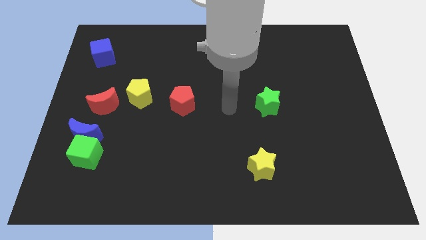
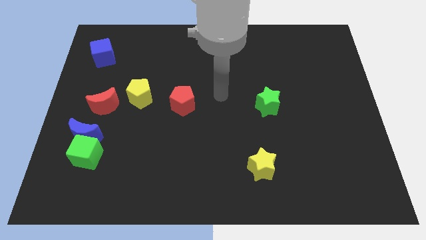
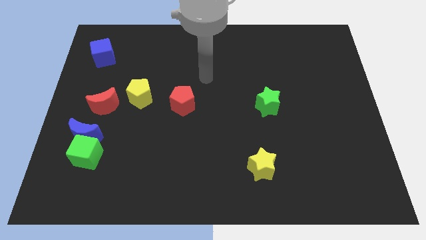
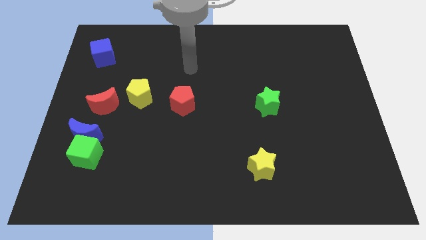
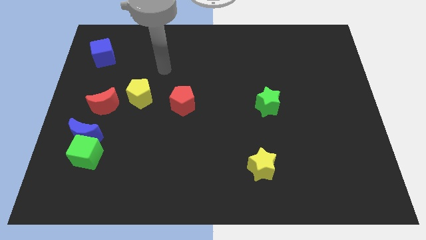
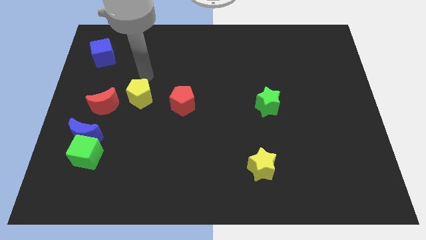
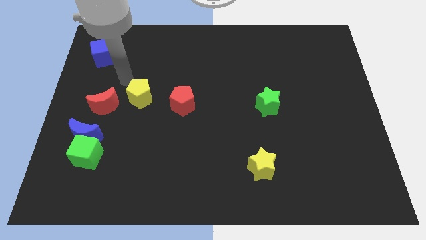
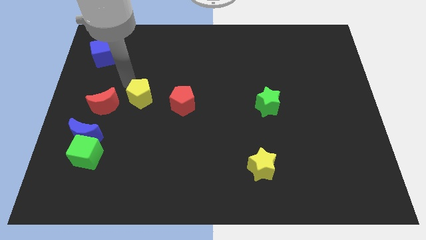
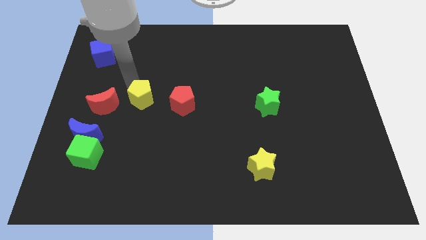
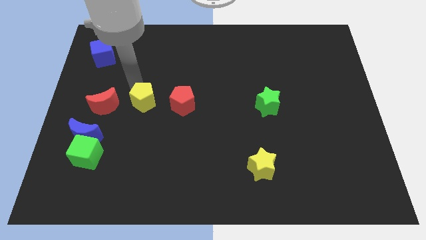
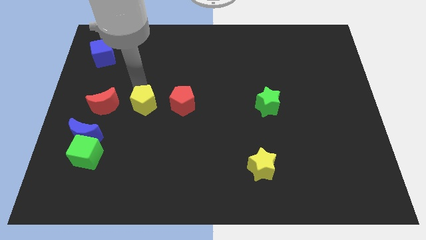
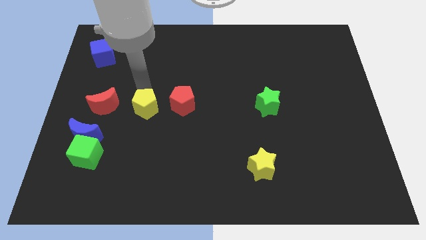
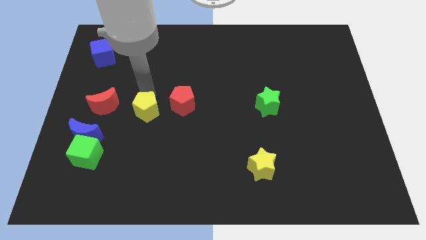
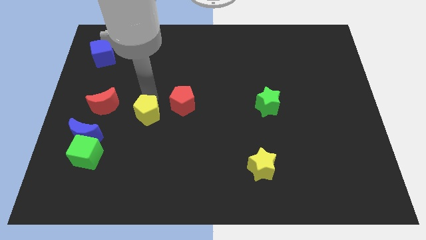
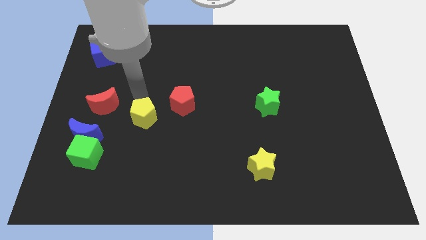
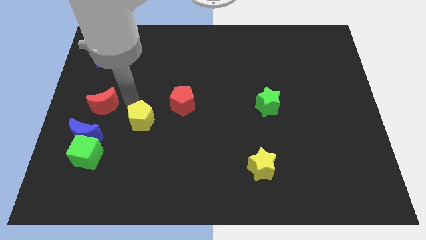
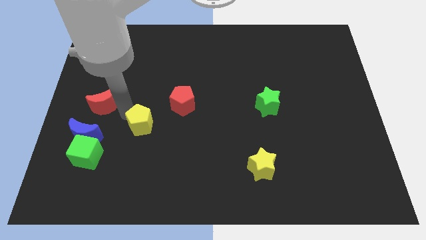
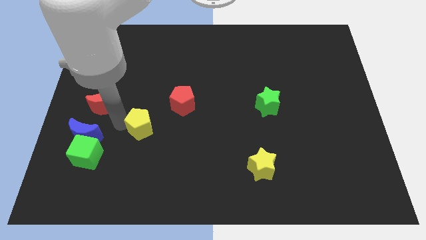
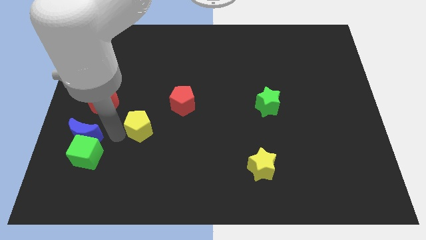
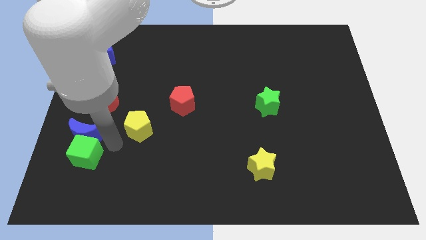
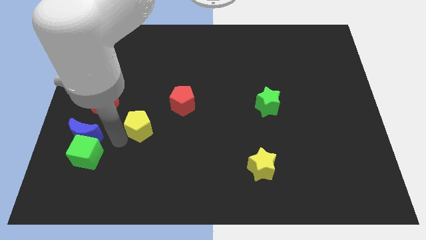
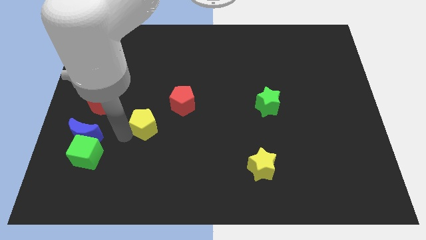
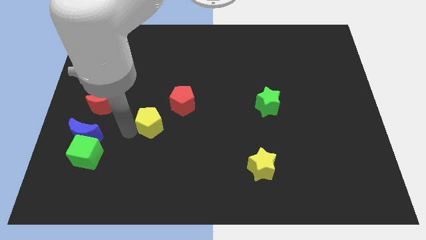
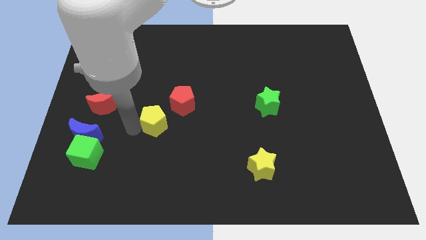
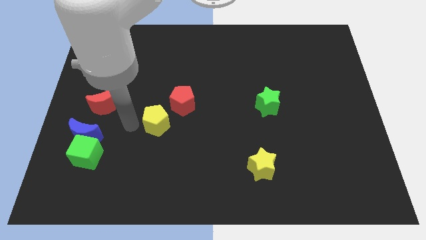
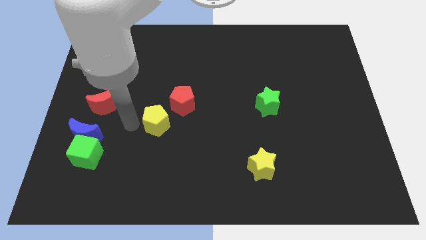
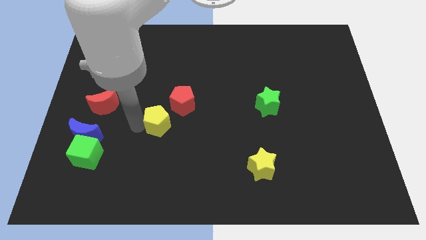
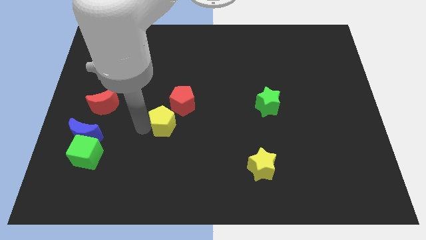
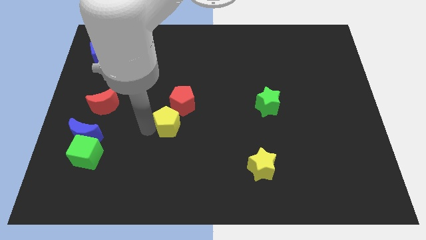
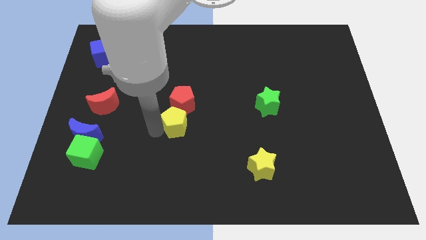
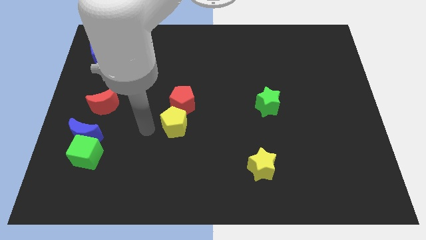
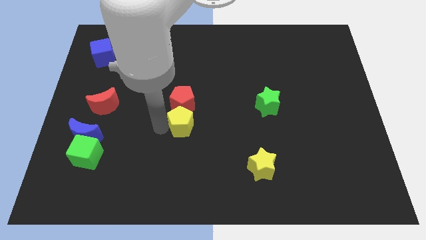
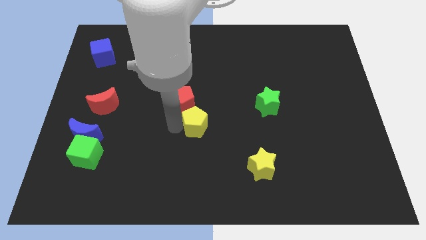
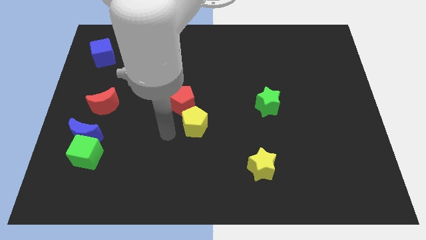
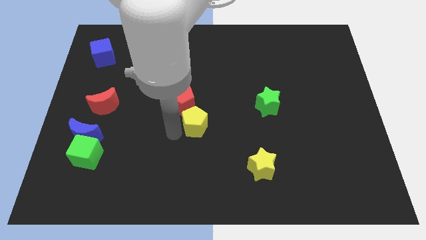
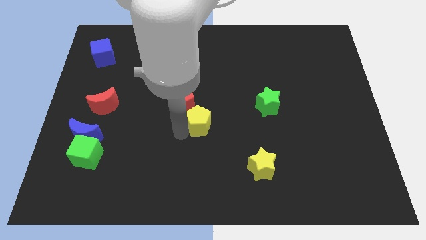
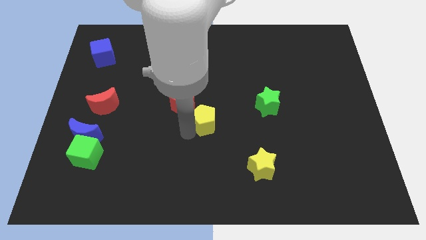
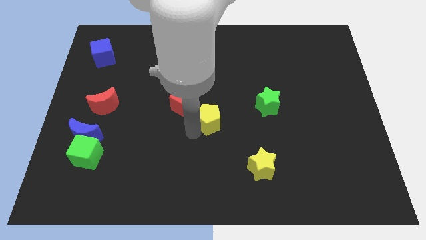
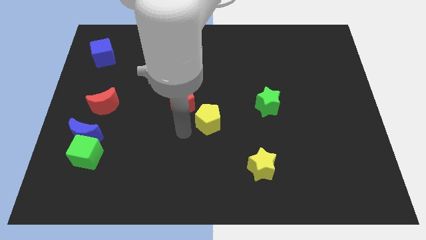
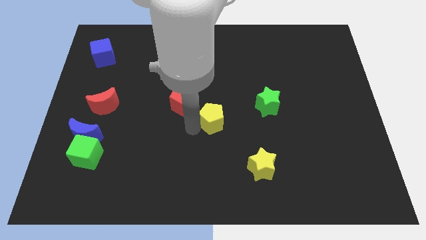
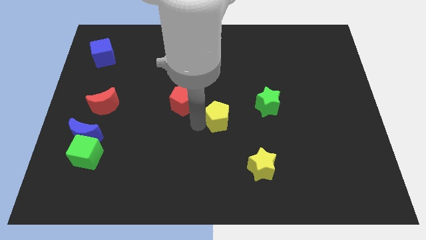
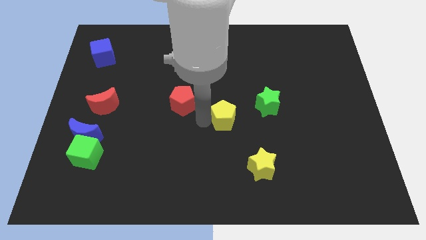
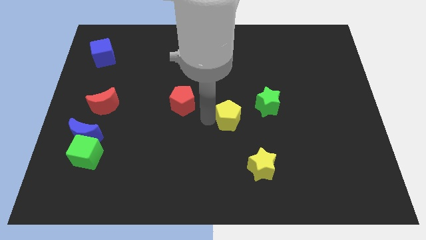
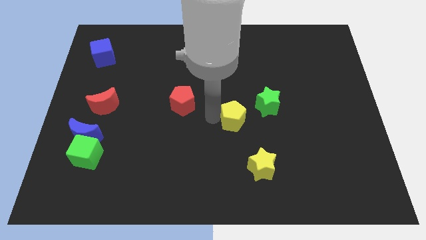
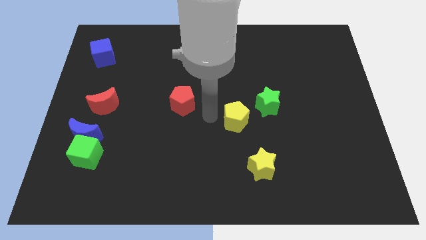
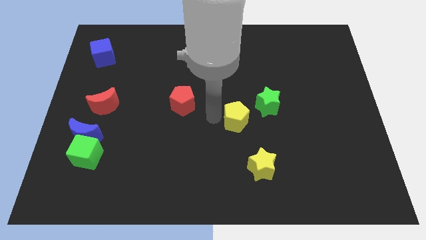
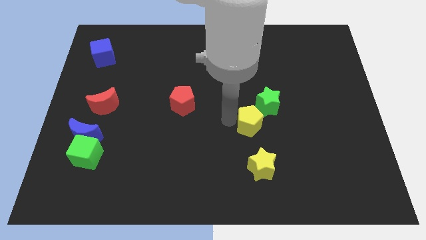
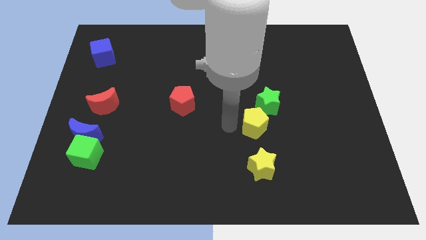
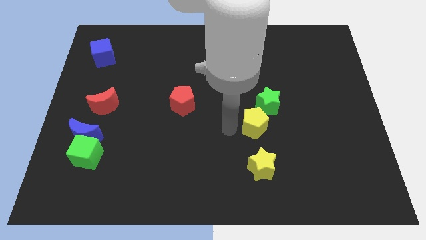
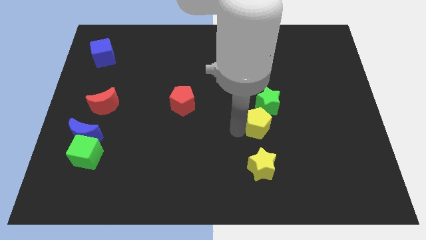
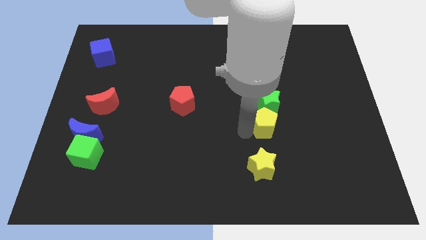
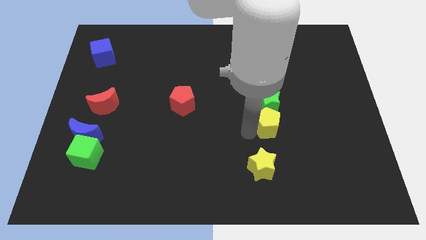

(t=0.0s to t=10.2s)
push the yellow pentagon to the bottom right of the green star

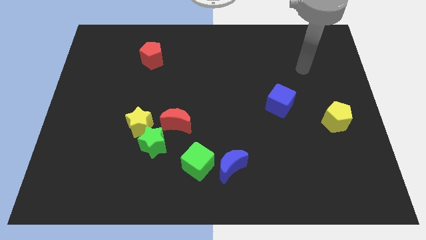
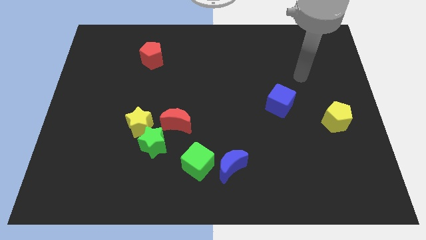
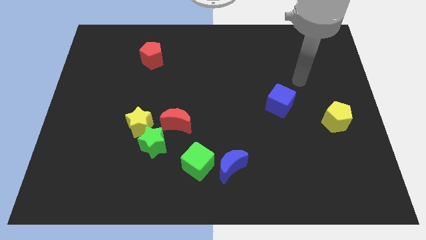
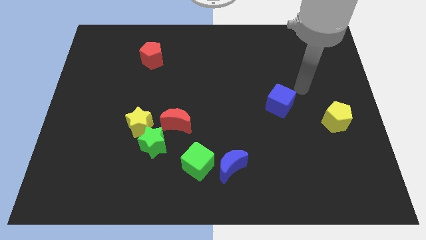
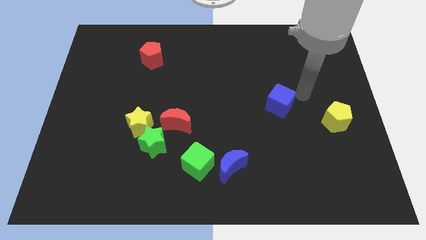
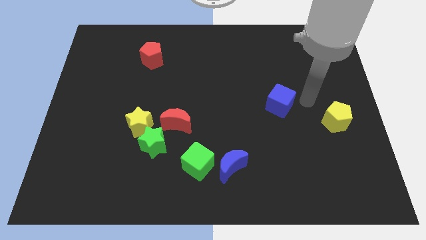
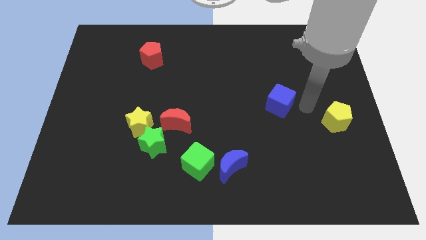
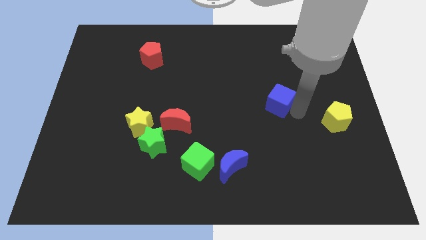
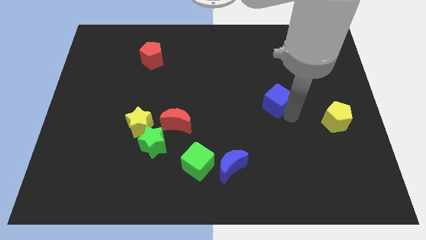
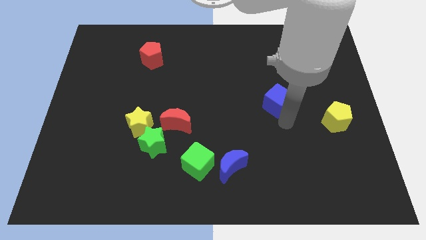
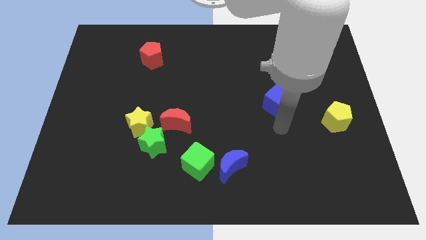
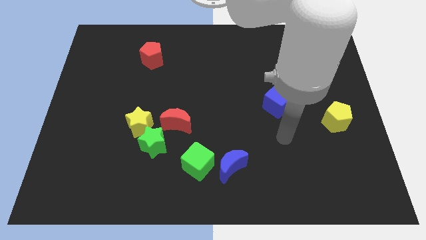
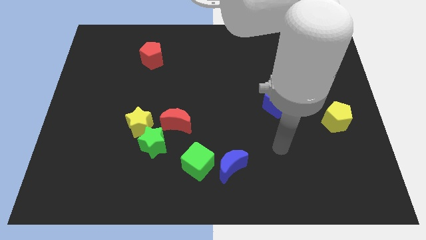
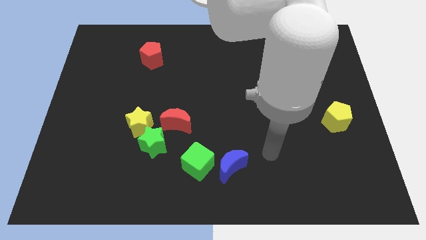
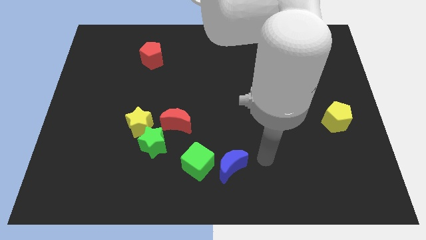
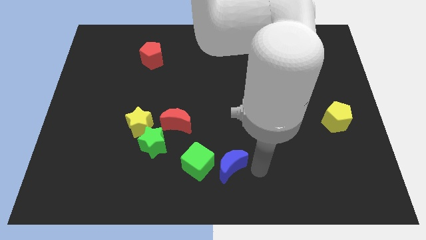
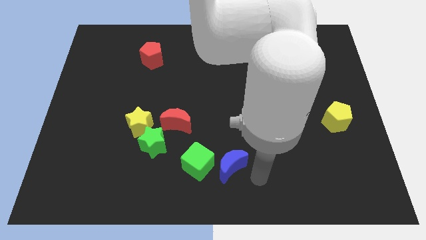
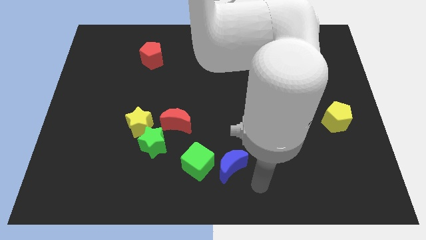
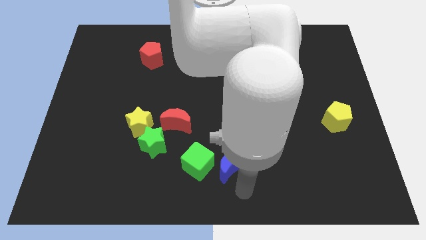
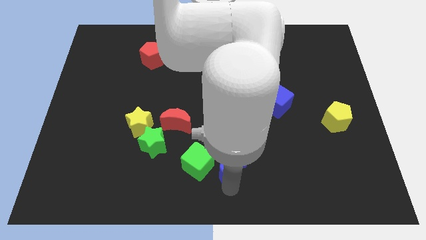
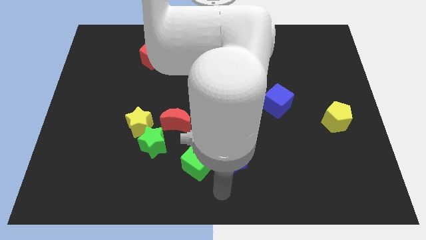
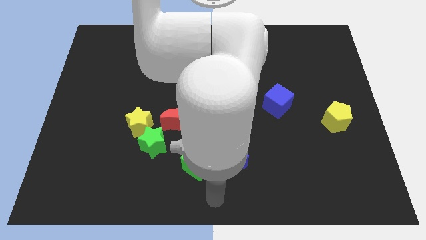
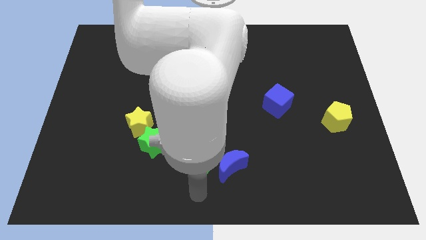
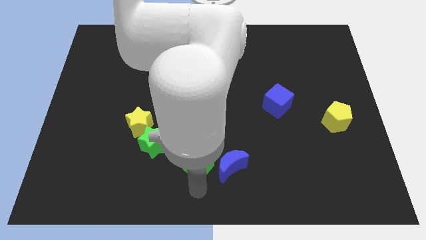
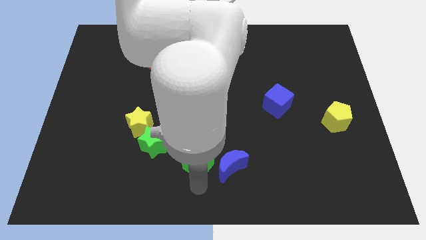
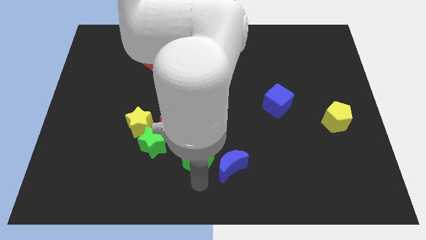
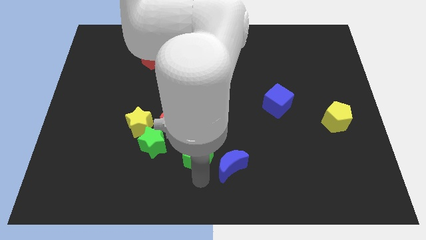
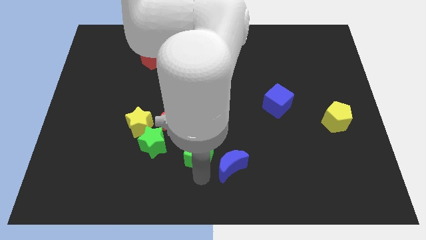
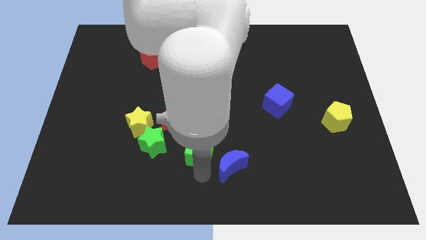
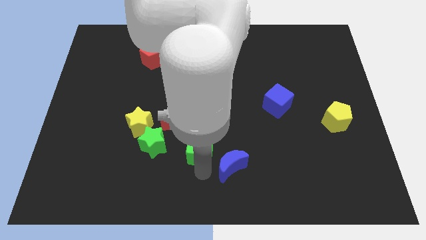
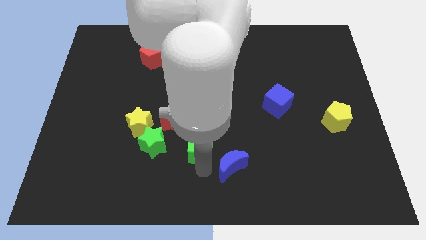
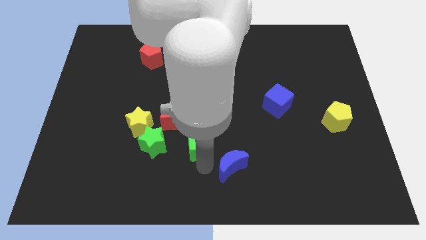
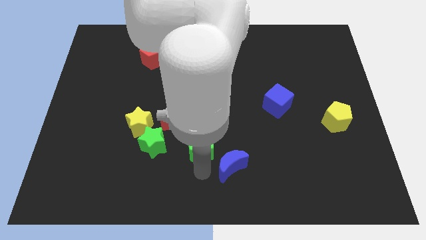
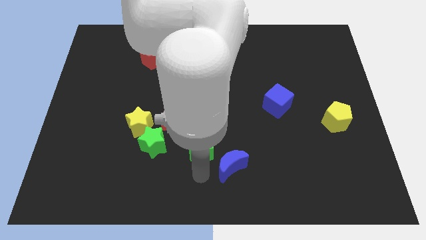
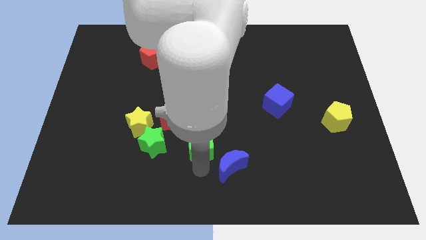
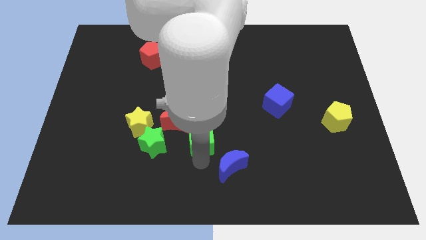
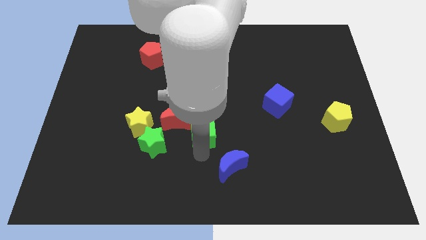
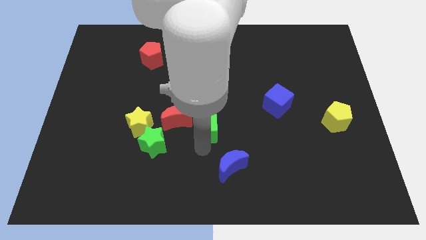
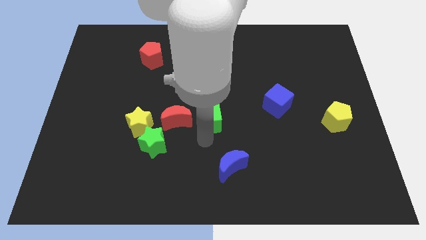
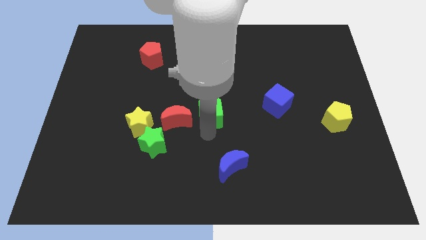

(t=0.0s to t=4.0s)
put the green cube to the top right of the red moon
